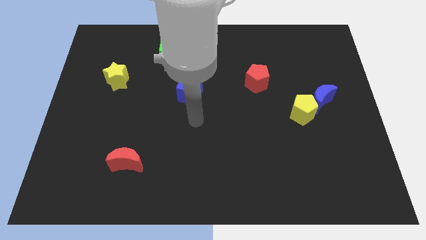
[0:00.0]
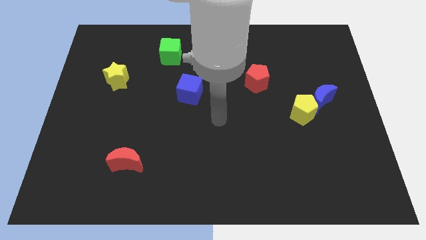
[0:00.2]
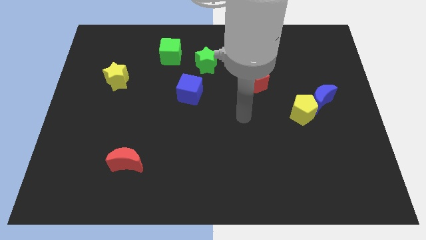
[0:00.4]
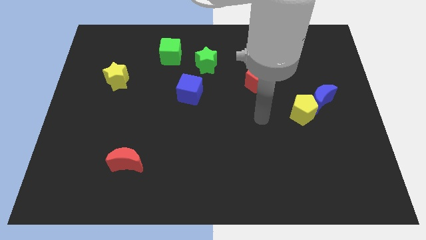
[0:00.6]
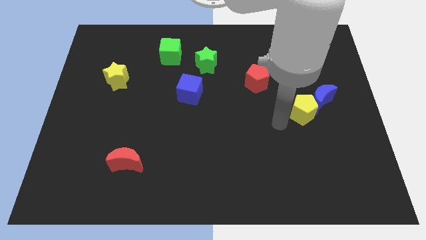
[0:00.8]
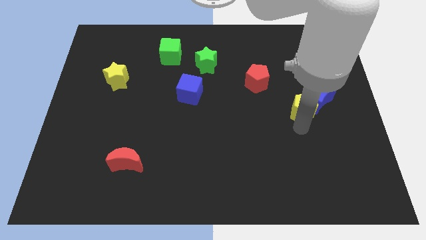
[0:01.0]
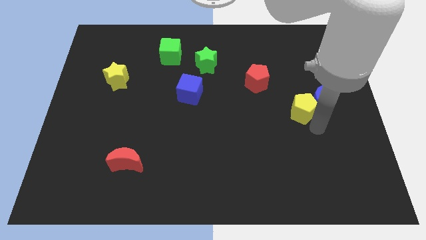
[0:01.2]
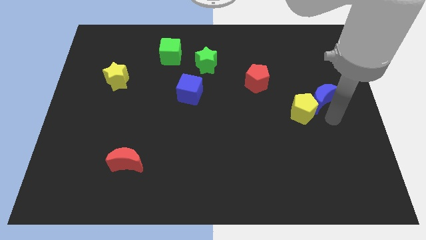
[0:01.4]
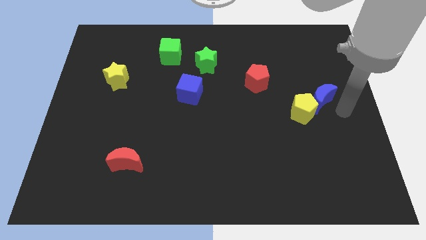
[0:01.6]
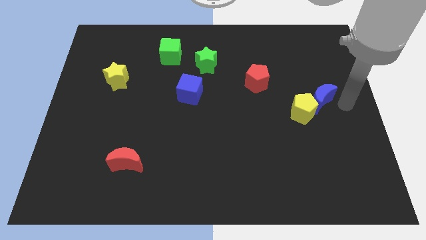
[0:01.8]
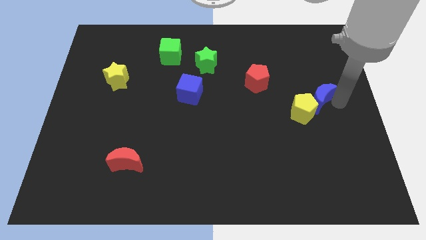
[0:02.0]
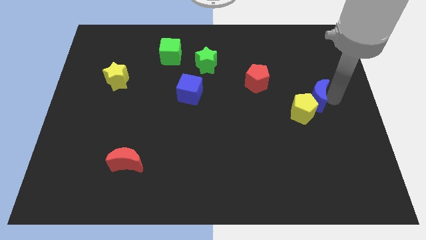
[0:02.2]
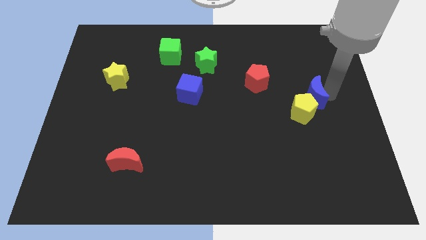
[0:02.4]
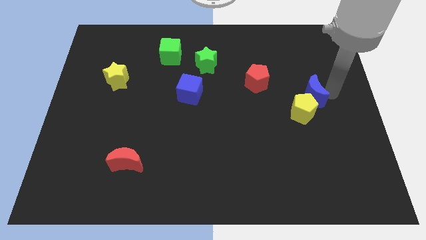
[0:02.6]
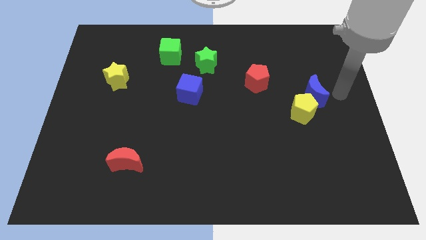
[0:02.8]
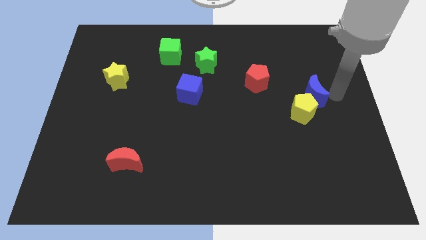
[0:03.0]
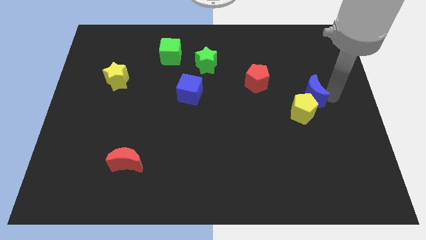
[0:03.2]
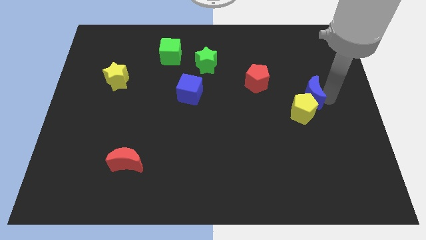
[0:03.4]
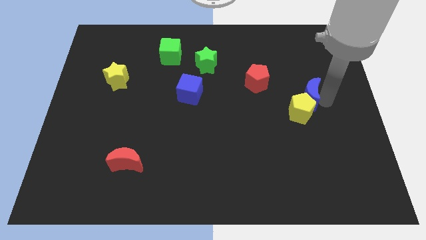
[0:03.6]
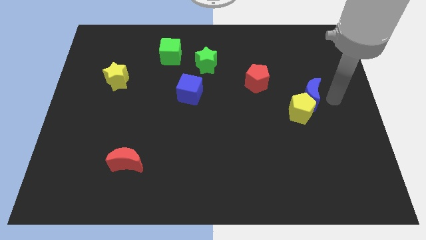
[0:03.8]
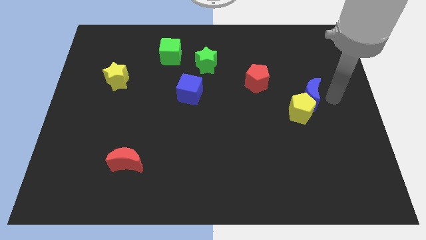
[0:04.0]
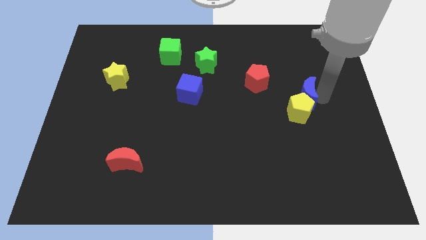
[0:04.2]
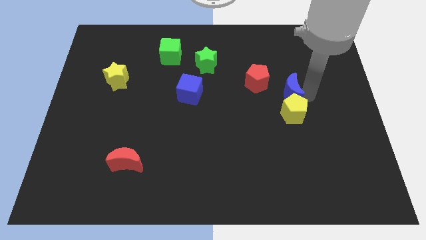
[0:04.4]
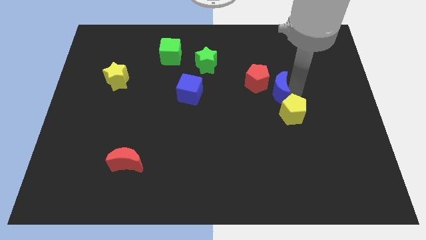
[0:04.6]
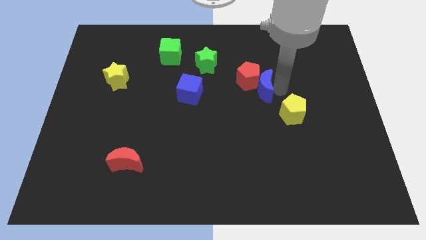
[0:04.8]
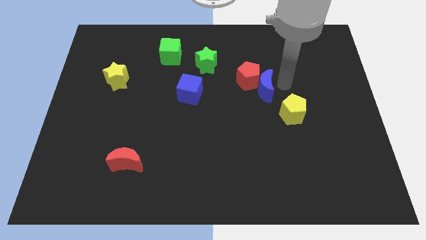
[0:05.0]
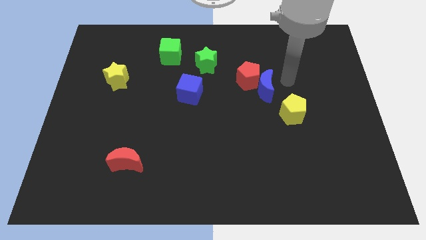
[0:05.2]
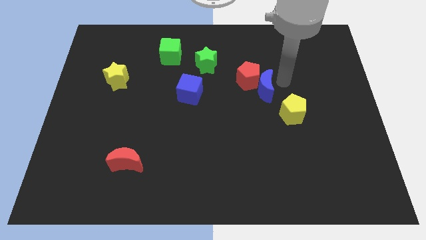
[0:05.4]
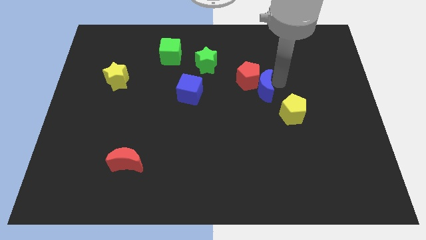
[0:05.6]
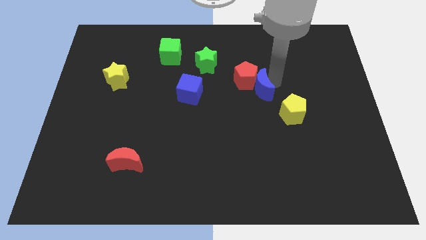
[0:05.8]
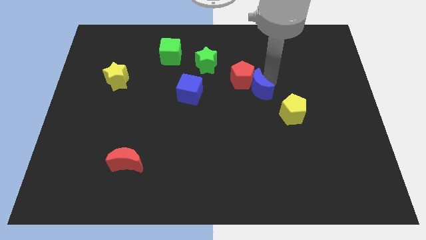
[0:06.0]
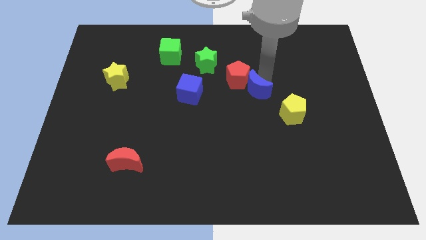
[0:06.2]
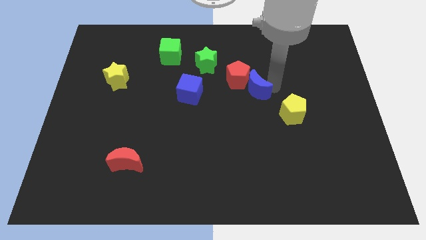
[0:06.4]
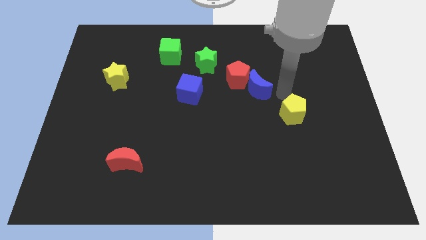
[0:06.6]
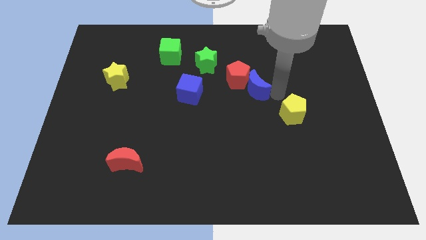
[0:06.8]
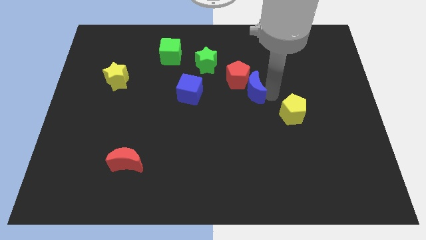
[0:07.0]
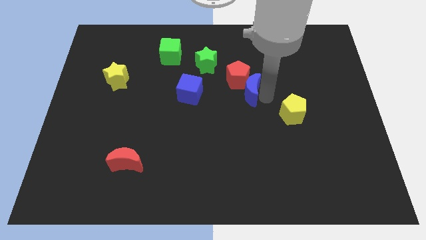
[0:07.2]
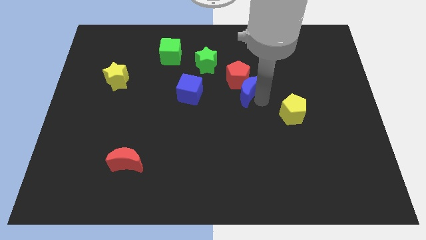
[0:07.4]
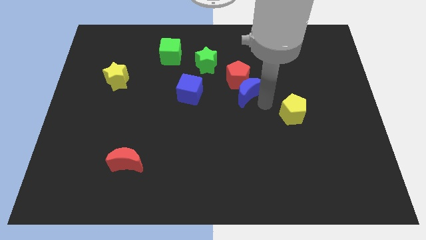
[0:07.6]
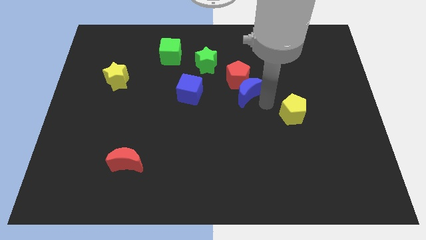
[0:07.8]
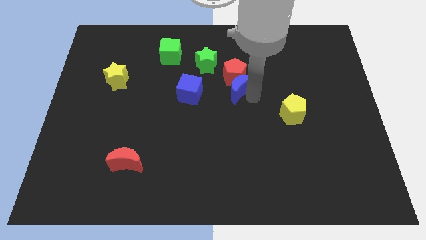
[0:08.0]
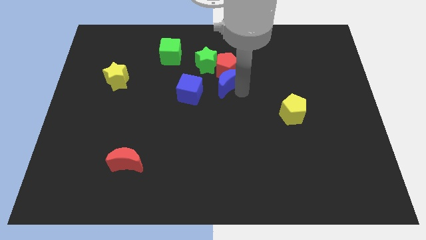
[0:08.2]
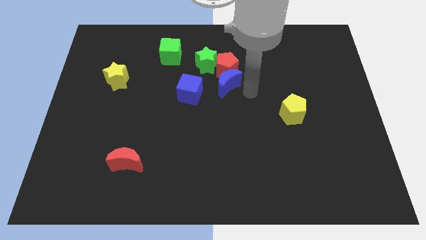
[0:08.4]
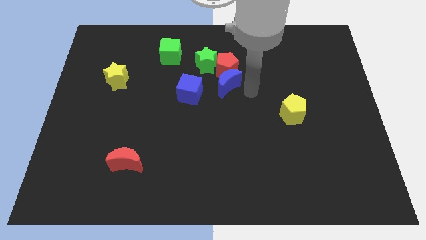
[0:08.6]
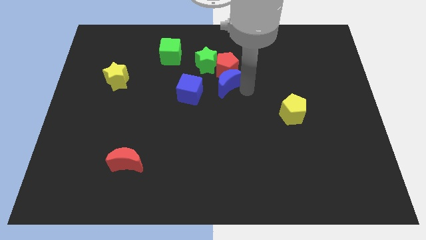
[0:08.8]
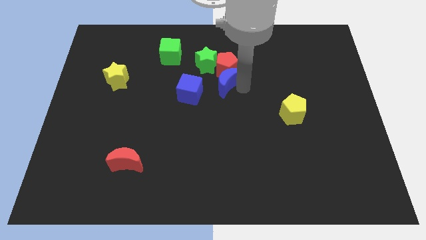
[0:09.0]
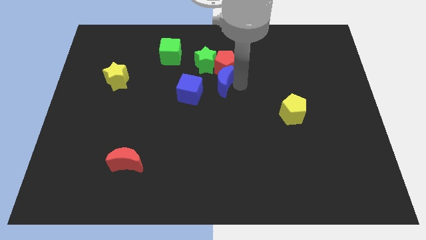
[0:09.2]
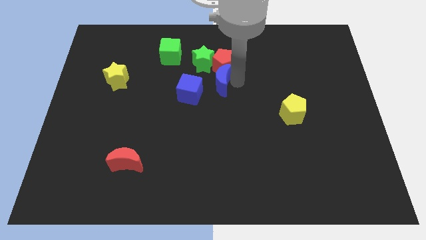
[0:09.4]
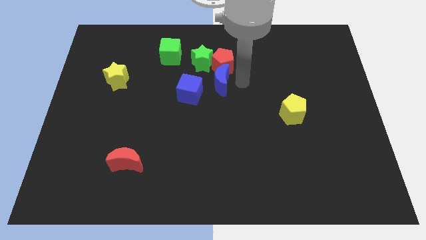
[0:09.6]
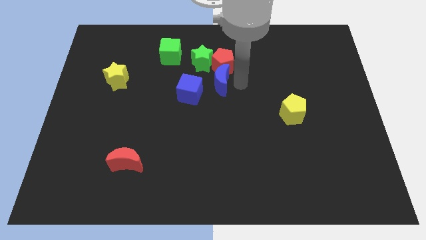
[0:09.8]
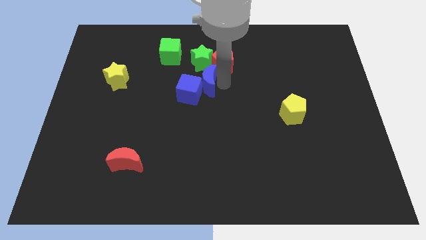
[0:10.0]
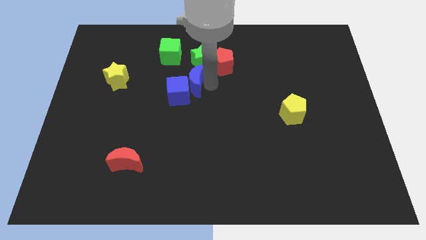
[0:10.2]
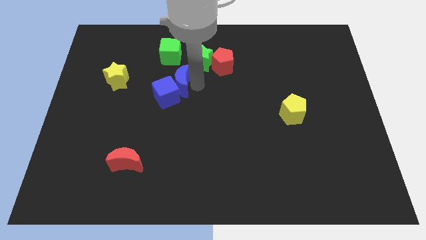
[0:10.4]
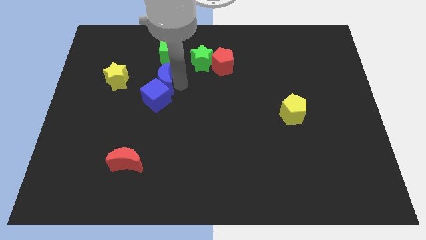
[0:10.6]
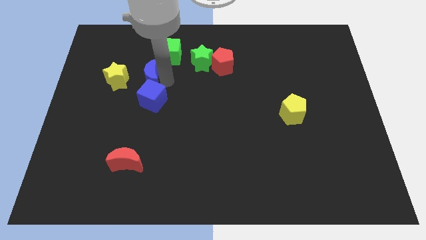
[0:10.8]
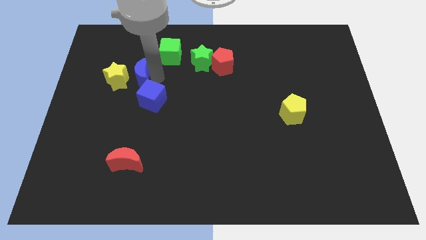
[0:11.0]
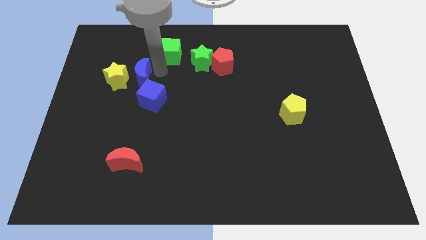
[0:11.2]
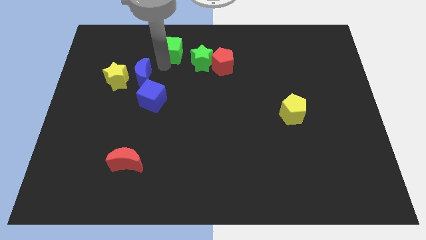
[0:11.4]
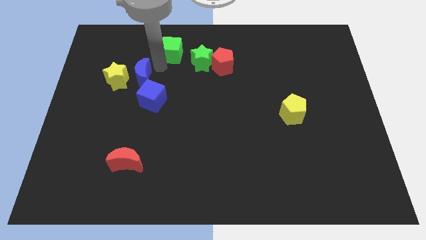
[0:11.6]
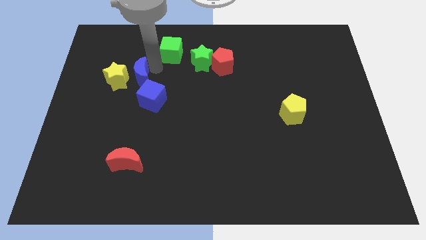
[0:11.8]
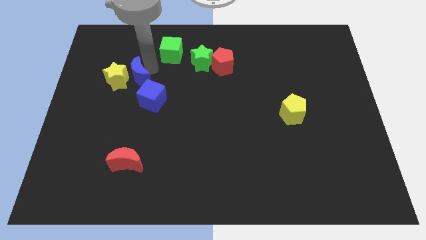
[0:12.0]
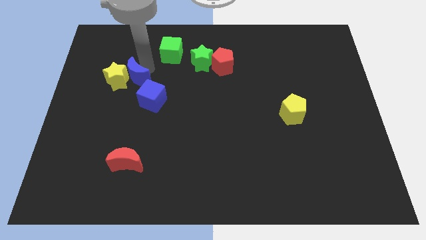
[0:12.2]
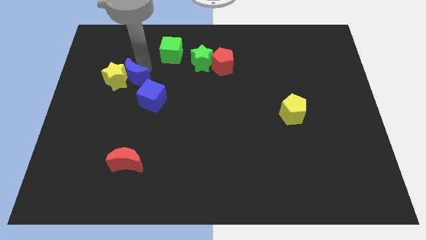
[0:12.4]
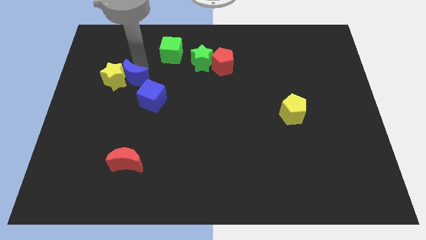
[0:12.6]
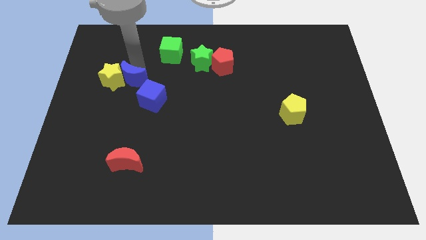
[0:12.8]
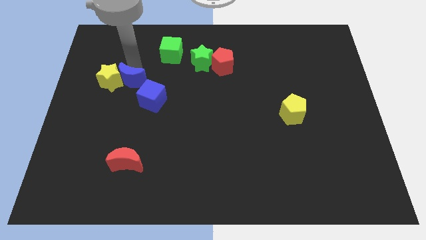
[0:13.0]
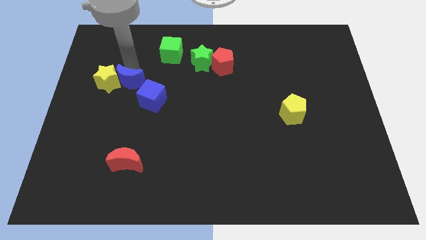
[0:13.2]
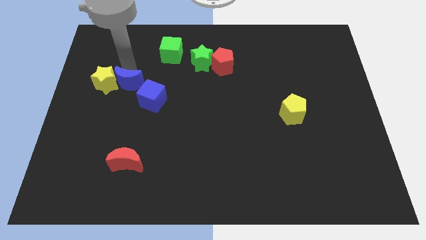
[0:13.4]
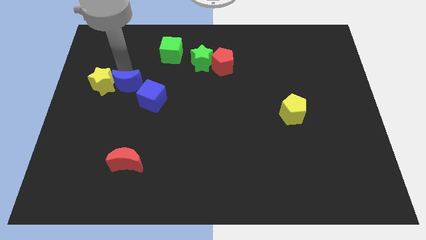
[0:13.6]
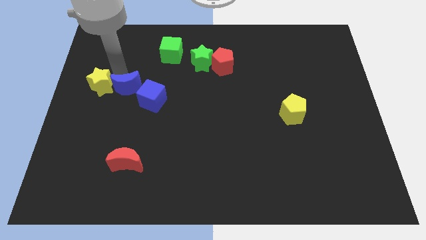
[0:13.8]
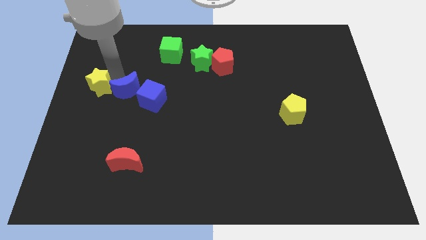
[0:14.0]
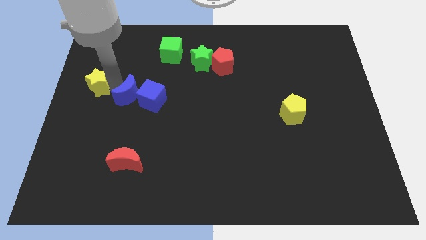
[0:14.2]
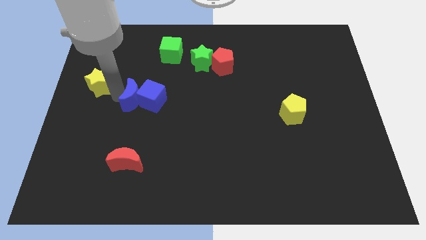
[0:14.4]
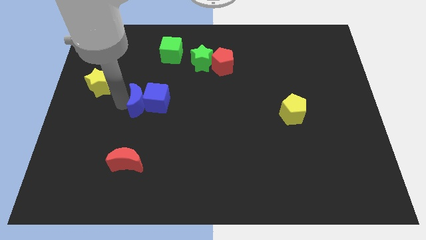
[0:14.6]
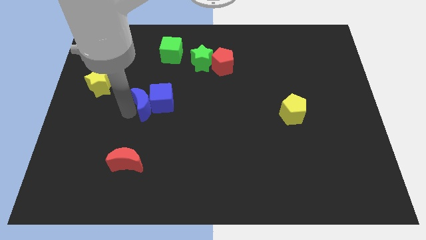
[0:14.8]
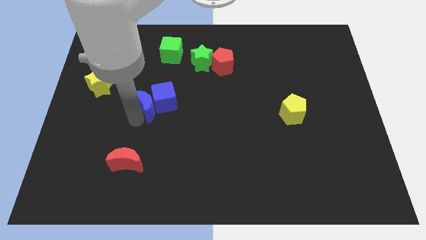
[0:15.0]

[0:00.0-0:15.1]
move the blue moon to the top left of the blue cube

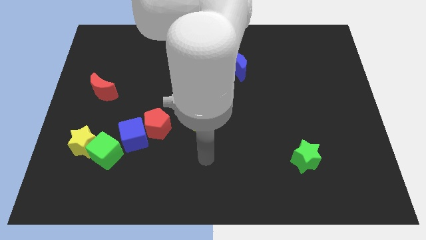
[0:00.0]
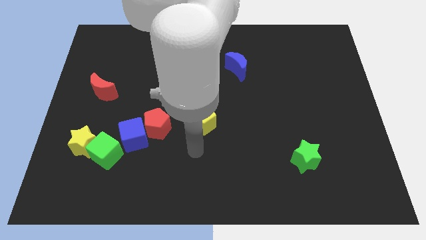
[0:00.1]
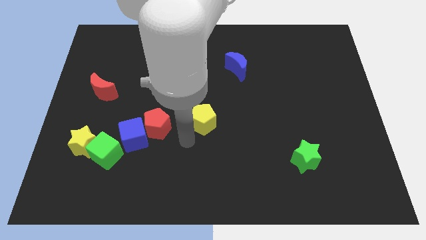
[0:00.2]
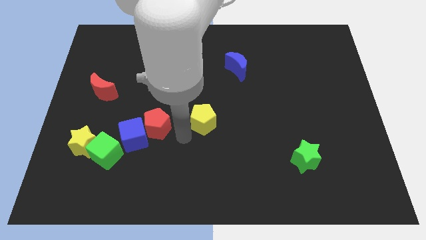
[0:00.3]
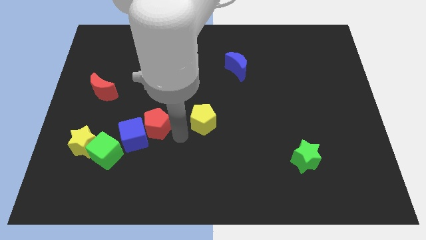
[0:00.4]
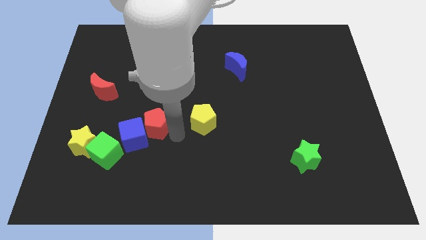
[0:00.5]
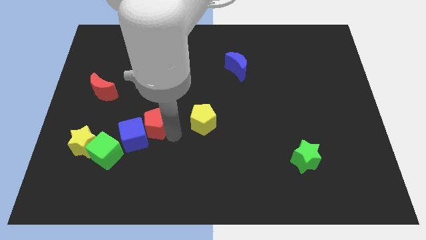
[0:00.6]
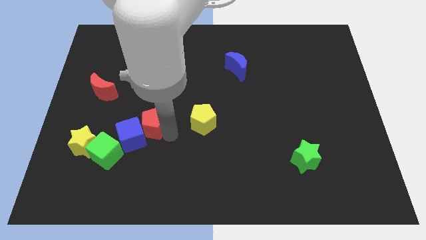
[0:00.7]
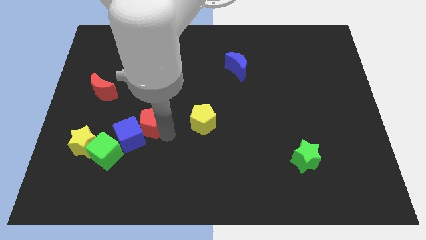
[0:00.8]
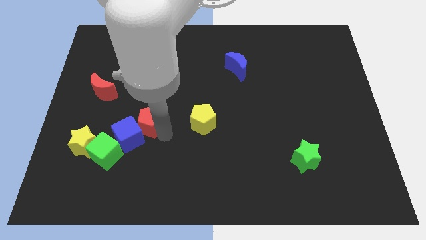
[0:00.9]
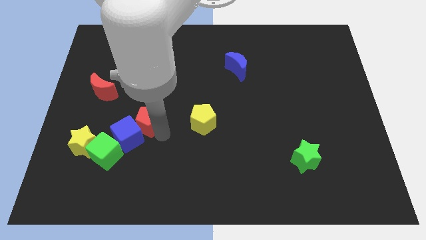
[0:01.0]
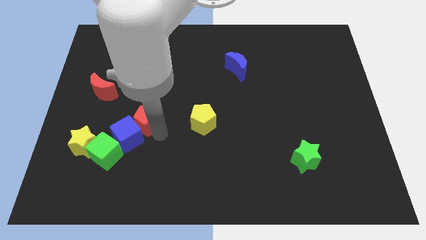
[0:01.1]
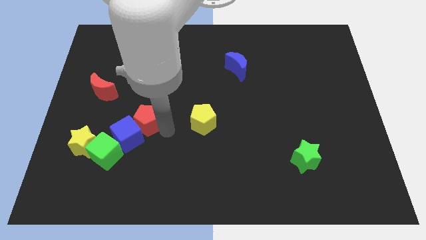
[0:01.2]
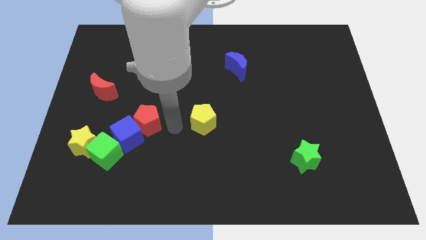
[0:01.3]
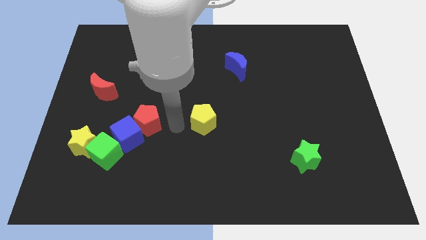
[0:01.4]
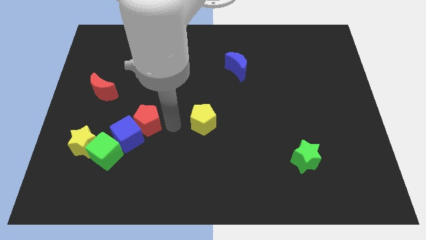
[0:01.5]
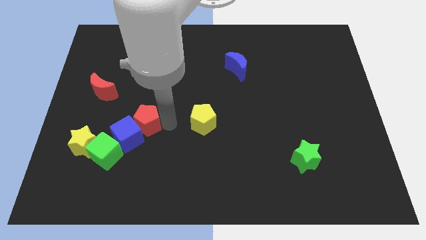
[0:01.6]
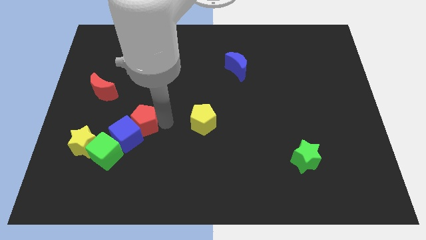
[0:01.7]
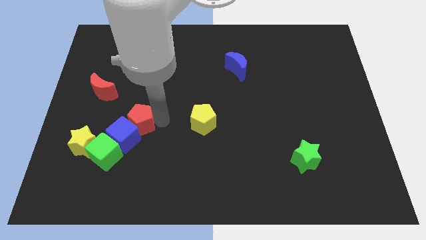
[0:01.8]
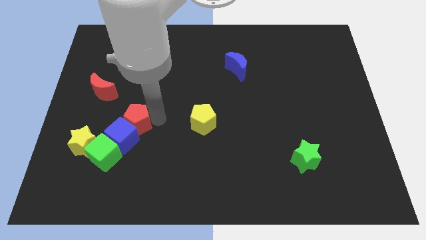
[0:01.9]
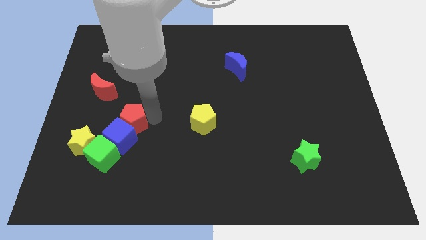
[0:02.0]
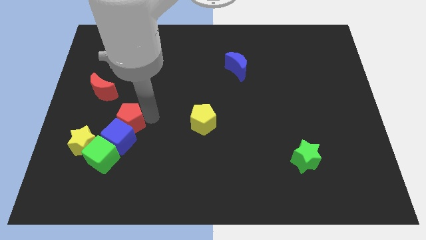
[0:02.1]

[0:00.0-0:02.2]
push the red pentagon to the top left of the blue cube
